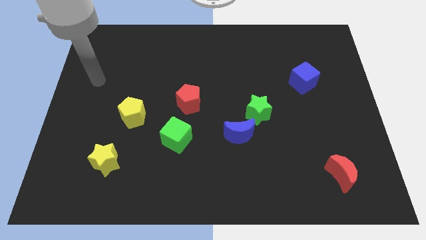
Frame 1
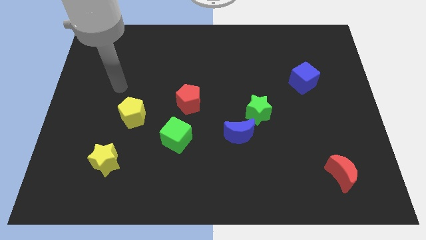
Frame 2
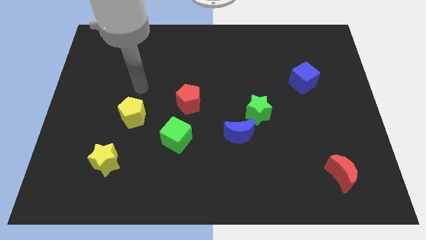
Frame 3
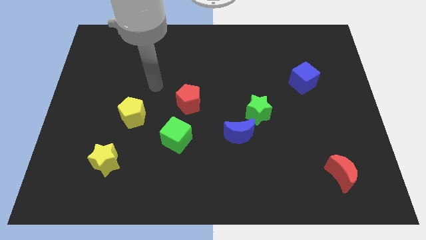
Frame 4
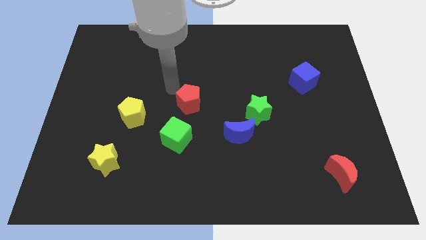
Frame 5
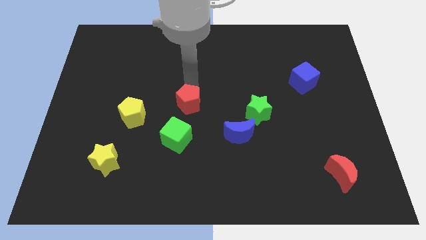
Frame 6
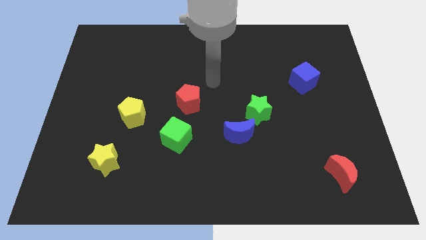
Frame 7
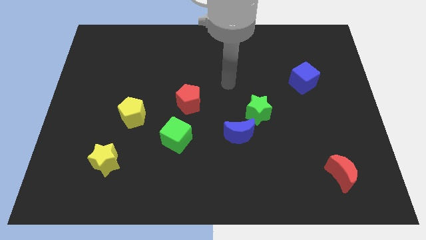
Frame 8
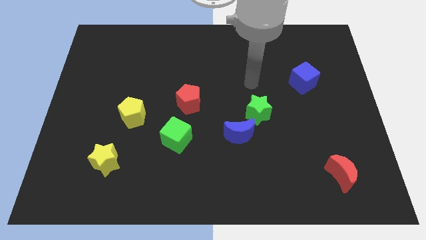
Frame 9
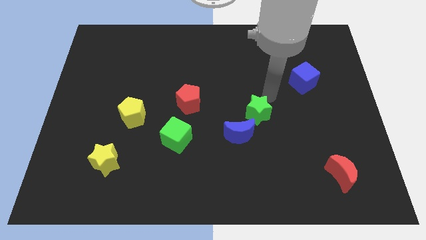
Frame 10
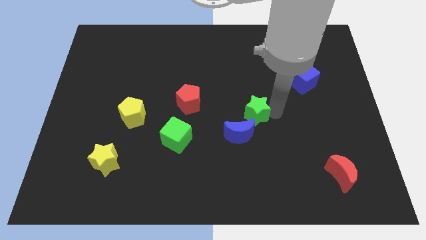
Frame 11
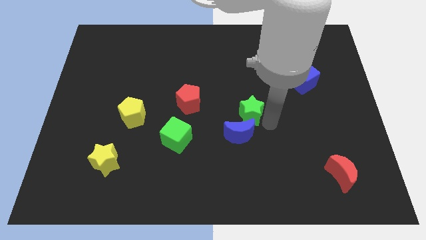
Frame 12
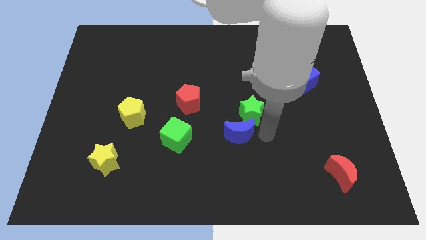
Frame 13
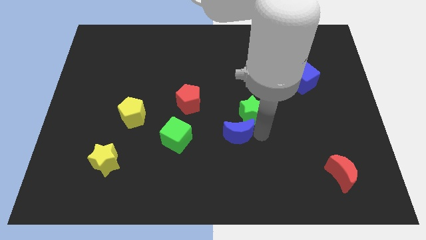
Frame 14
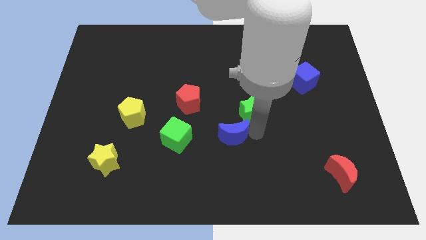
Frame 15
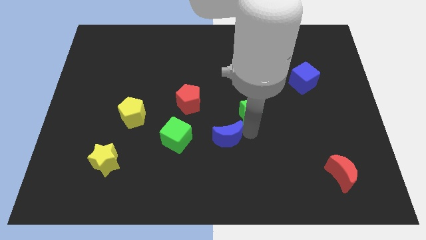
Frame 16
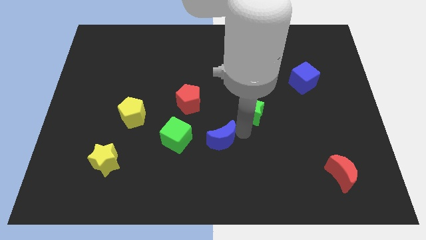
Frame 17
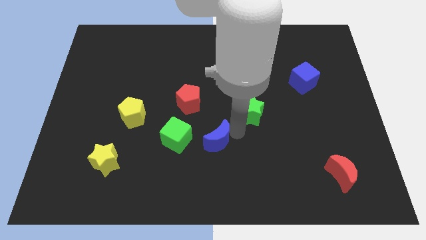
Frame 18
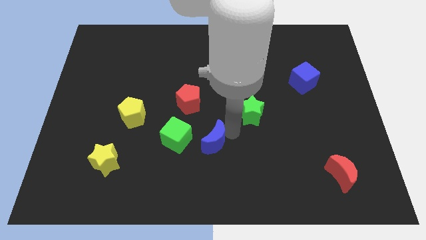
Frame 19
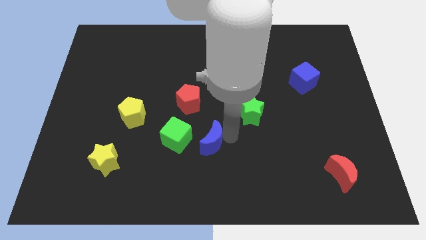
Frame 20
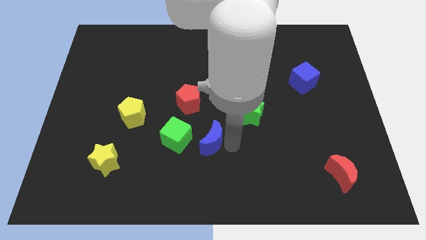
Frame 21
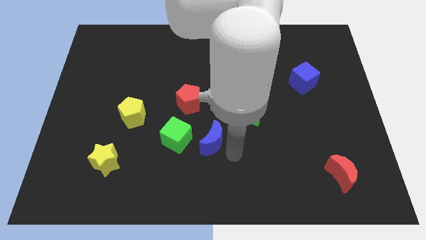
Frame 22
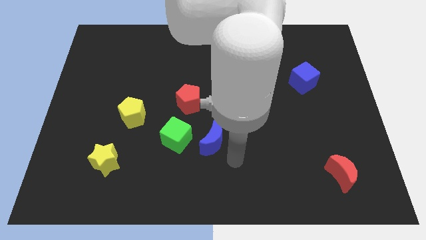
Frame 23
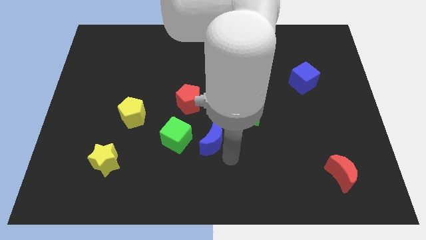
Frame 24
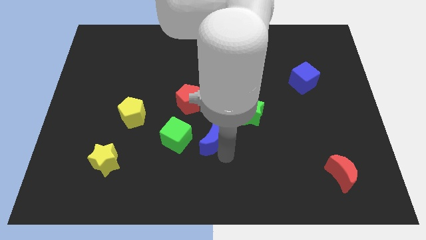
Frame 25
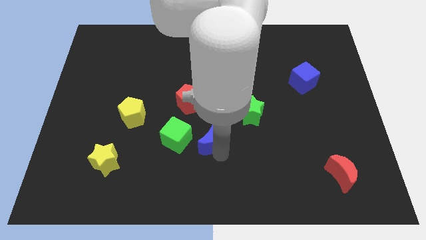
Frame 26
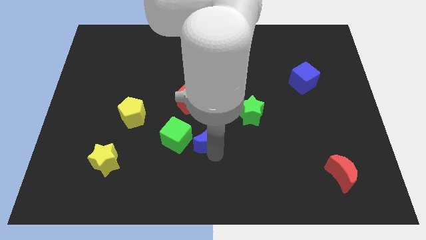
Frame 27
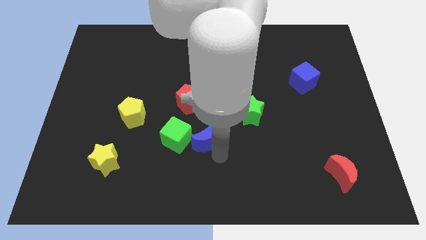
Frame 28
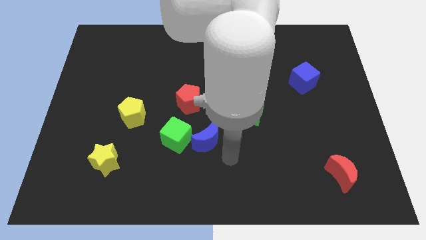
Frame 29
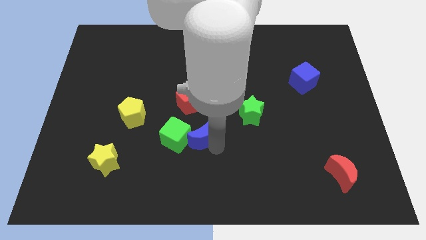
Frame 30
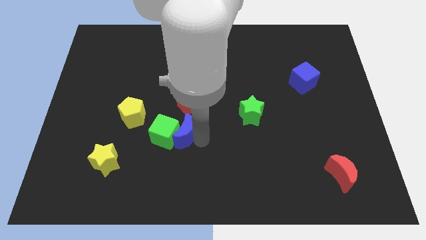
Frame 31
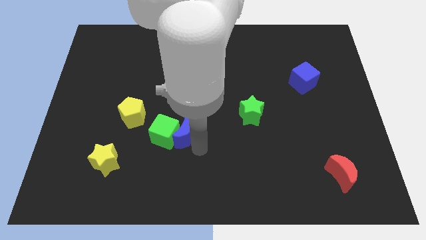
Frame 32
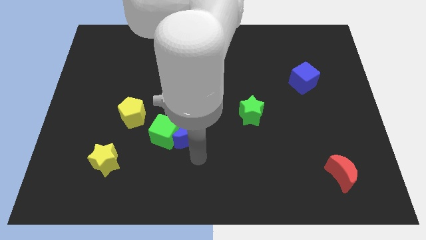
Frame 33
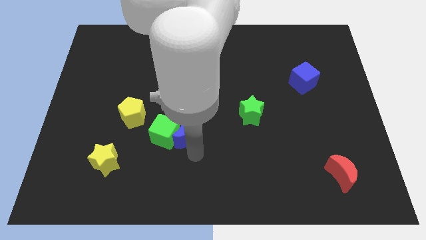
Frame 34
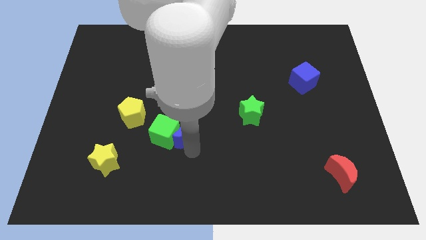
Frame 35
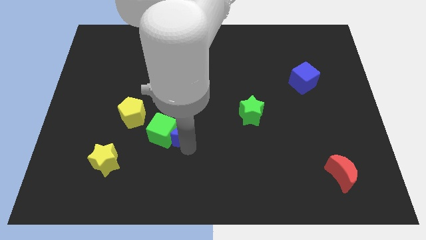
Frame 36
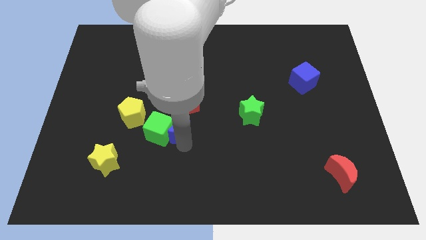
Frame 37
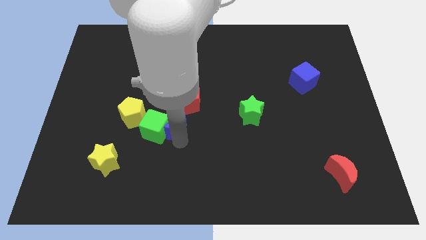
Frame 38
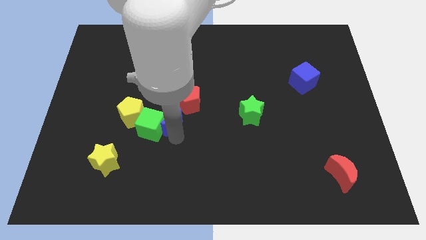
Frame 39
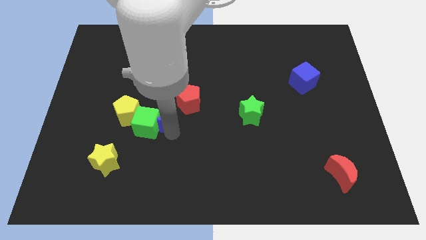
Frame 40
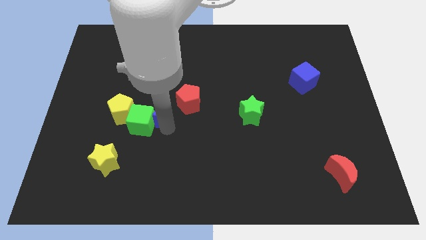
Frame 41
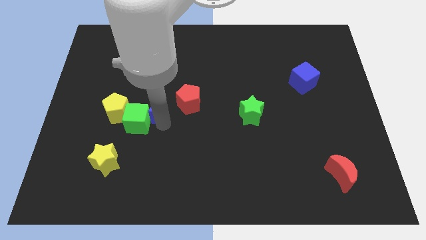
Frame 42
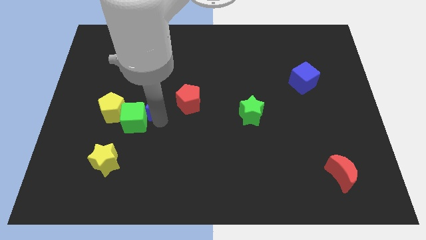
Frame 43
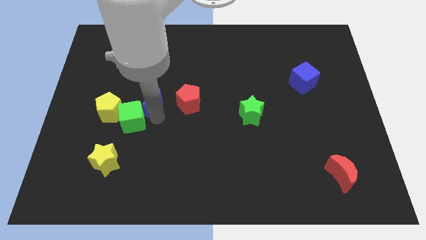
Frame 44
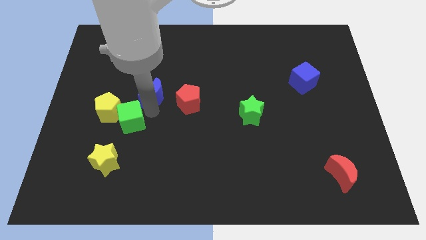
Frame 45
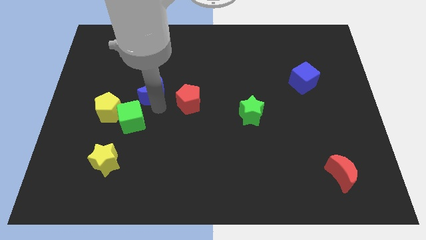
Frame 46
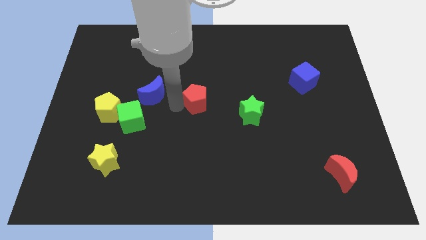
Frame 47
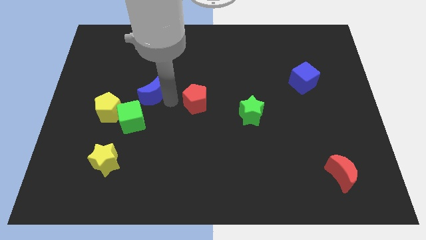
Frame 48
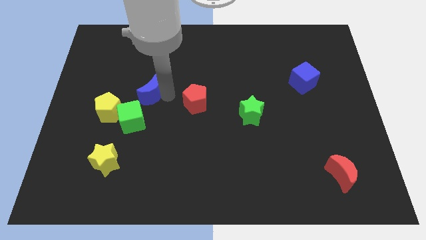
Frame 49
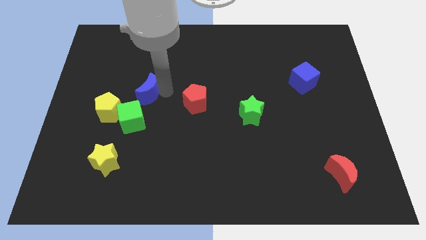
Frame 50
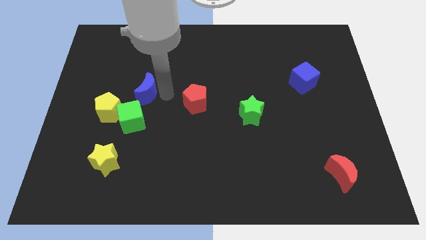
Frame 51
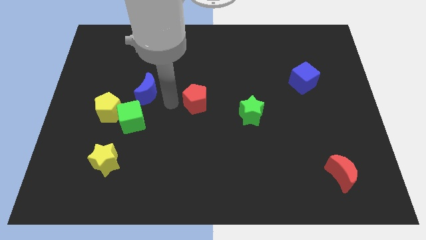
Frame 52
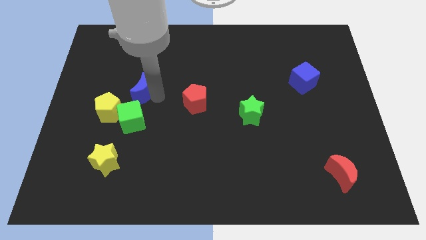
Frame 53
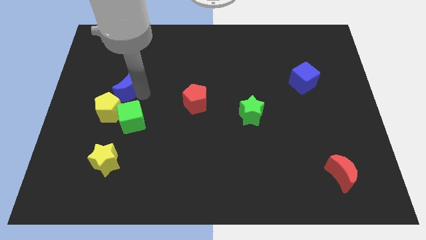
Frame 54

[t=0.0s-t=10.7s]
push the blue moon to the top of the yellow pentagon
